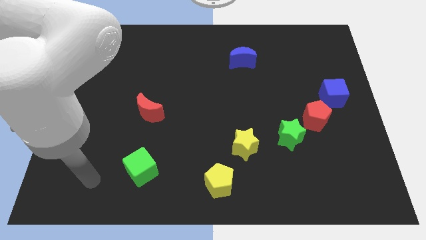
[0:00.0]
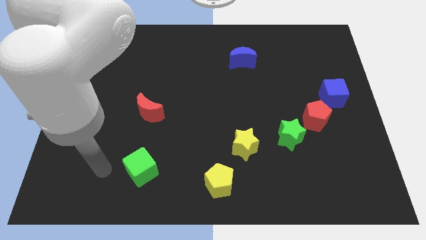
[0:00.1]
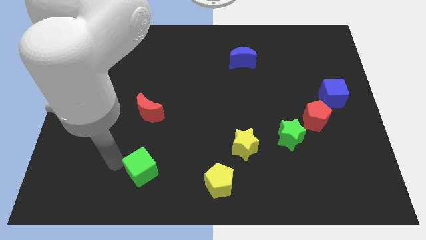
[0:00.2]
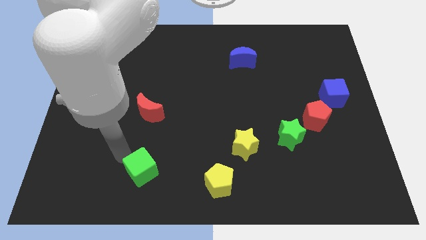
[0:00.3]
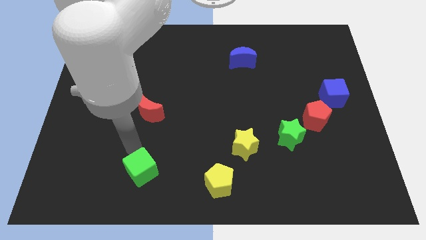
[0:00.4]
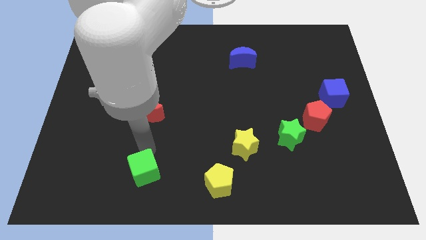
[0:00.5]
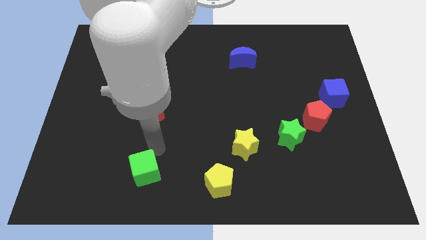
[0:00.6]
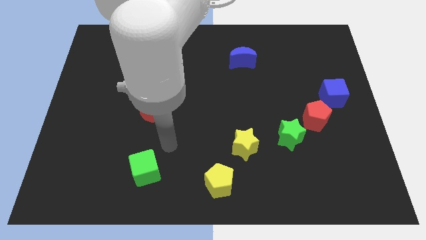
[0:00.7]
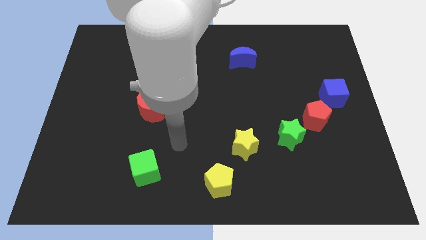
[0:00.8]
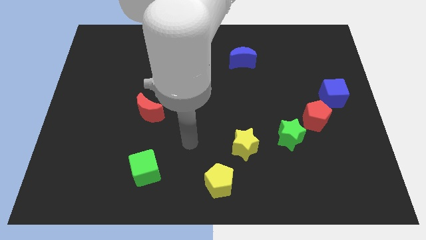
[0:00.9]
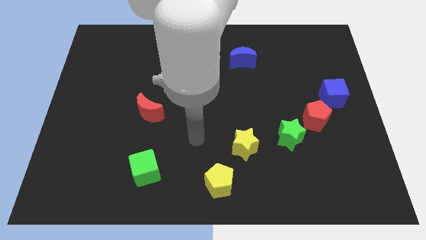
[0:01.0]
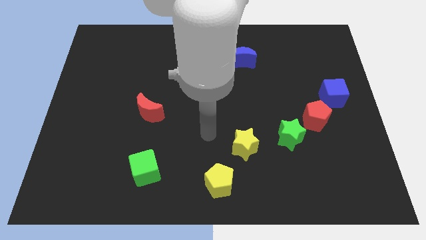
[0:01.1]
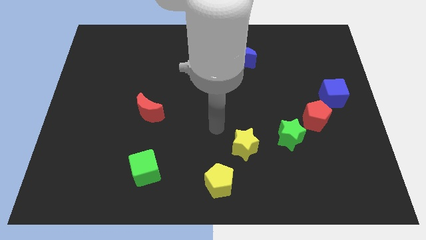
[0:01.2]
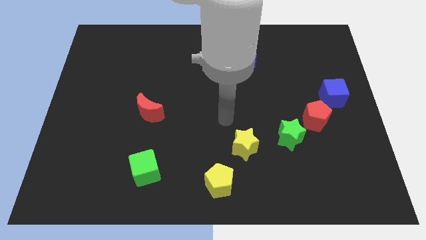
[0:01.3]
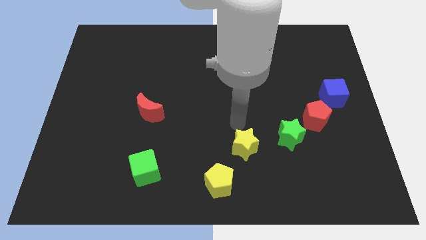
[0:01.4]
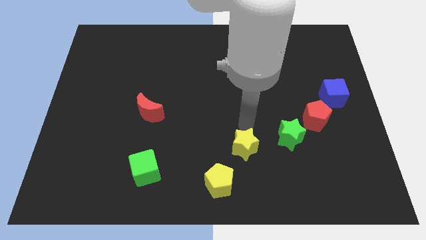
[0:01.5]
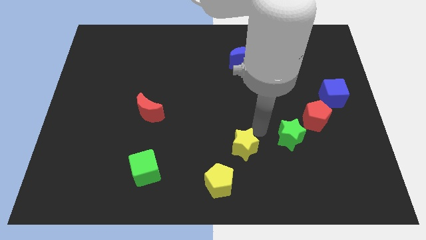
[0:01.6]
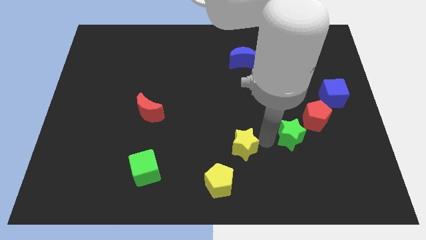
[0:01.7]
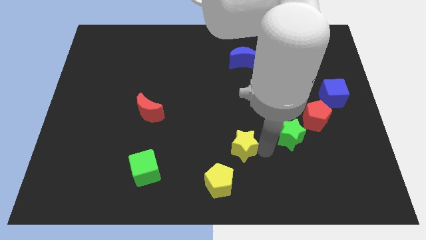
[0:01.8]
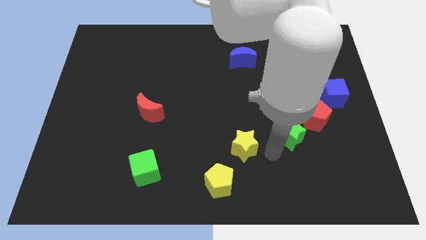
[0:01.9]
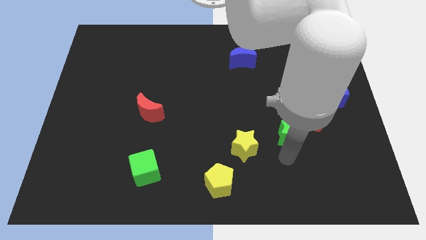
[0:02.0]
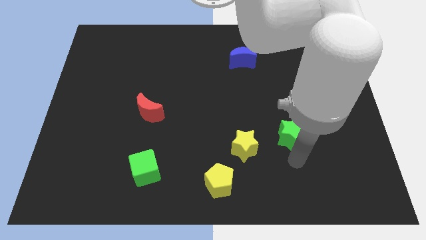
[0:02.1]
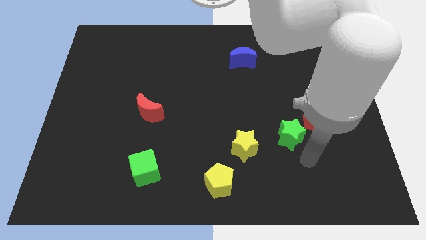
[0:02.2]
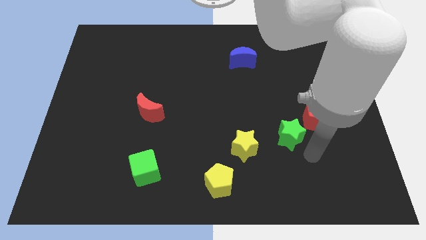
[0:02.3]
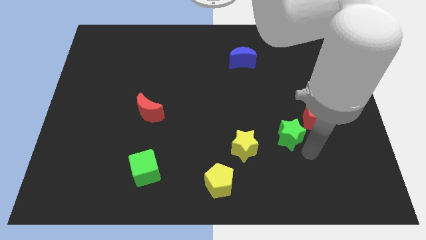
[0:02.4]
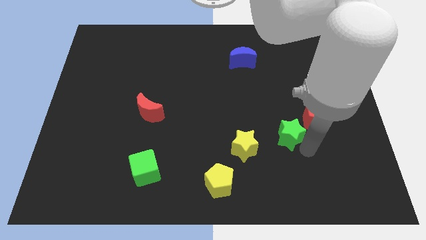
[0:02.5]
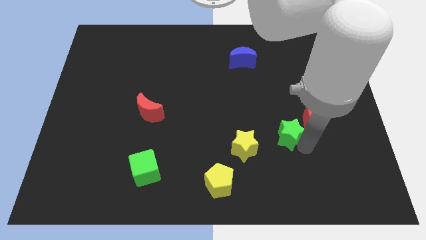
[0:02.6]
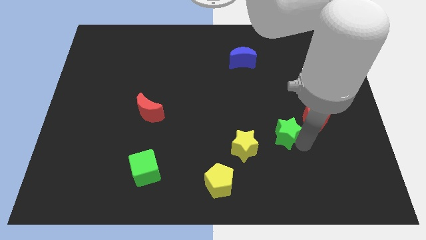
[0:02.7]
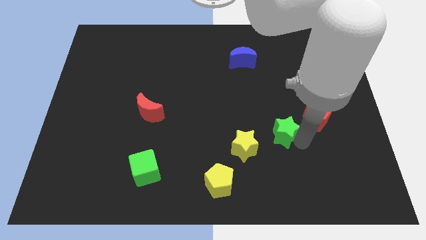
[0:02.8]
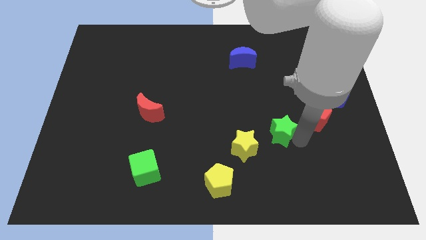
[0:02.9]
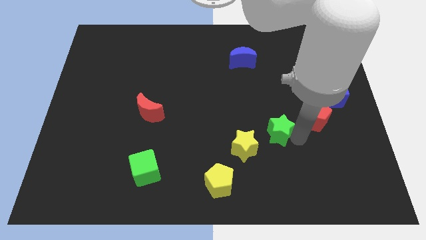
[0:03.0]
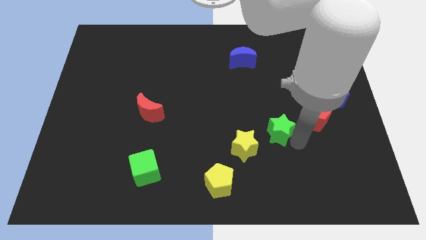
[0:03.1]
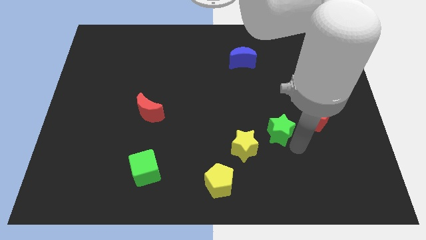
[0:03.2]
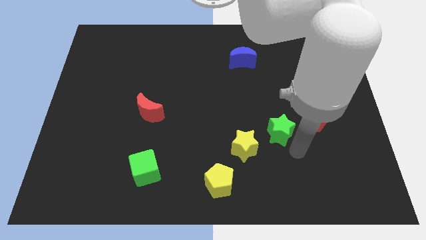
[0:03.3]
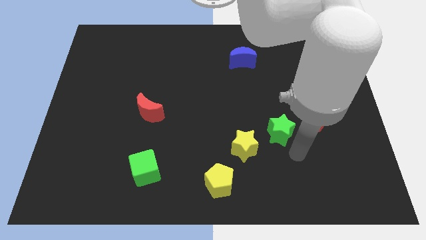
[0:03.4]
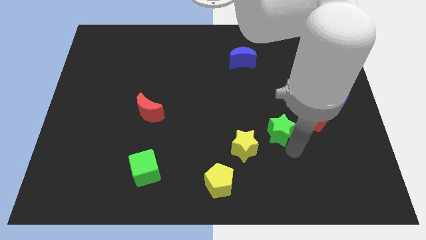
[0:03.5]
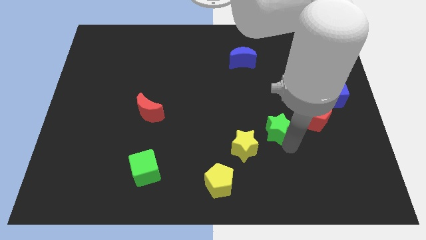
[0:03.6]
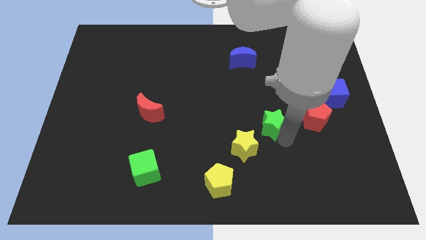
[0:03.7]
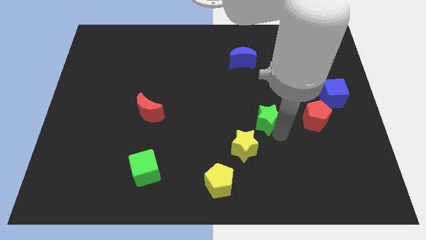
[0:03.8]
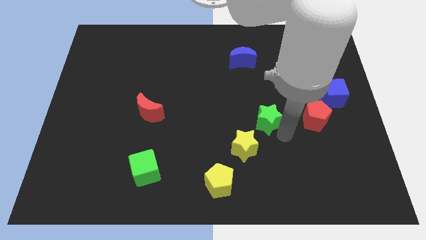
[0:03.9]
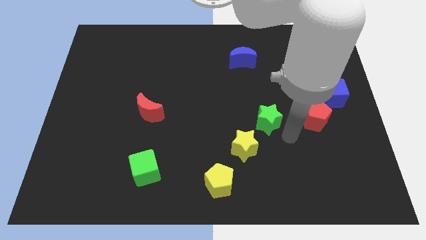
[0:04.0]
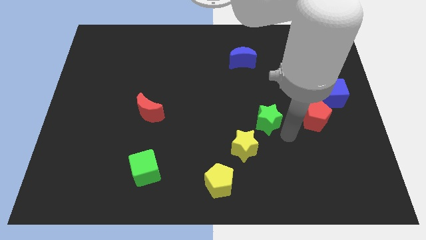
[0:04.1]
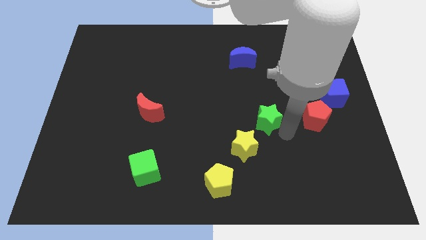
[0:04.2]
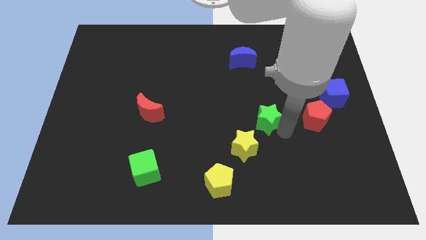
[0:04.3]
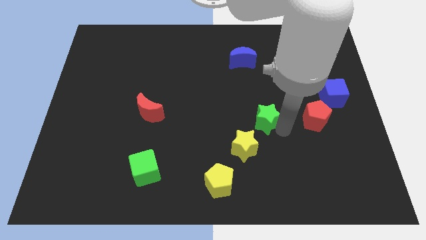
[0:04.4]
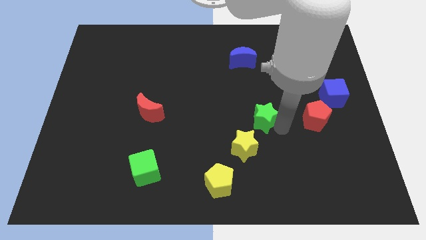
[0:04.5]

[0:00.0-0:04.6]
slightly slide the green star upwards and then to the left

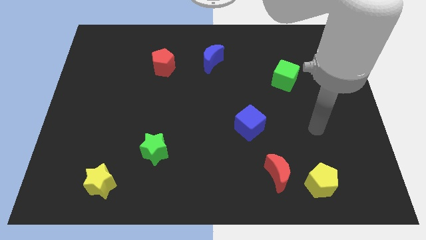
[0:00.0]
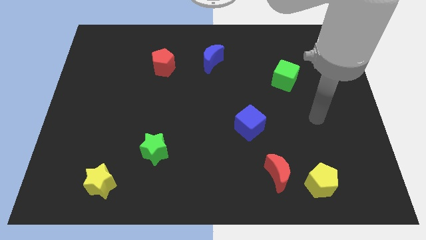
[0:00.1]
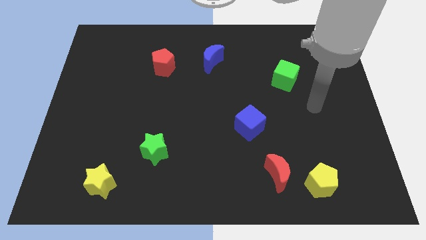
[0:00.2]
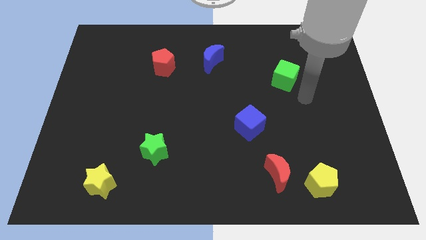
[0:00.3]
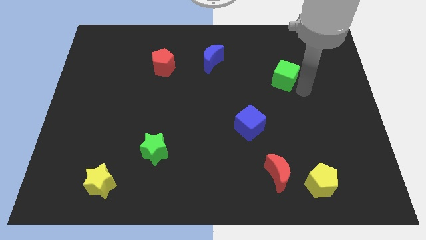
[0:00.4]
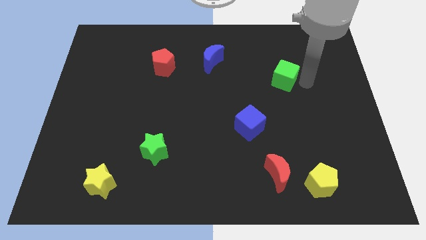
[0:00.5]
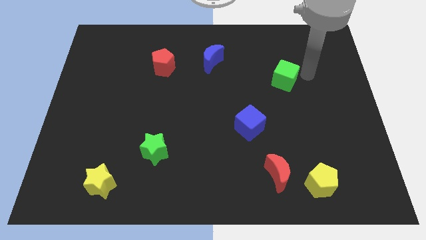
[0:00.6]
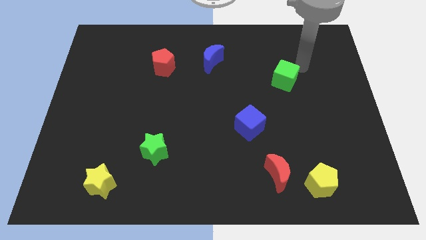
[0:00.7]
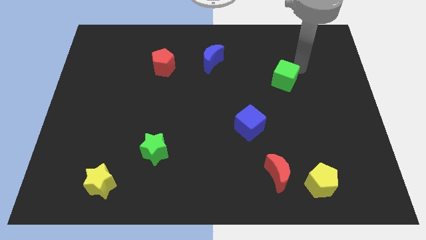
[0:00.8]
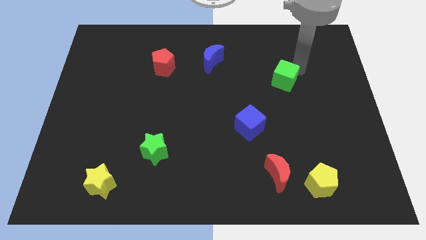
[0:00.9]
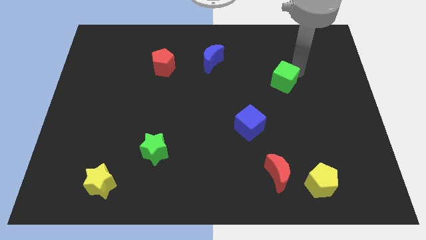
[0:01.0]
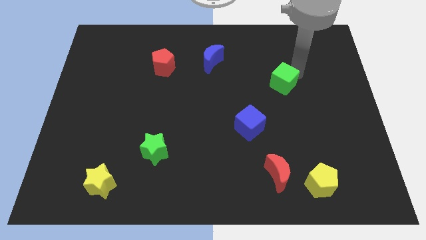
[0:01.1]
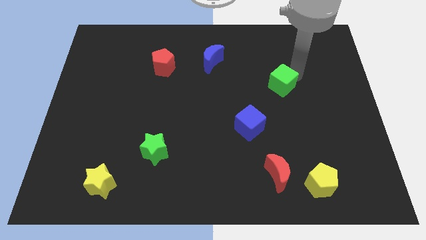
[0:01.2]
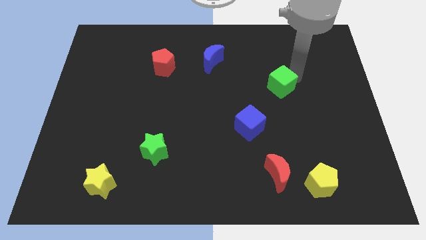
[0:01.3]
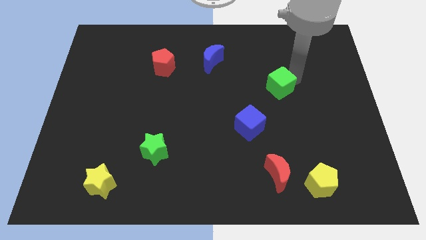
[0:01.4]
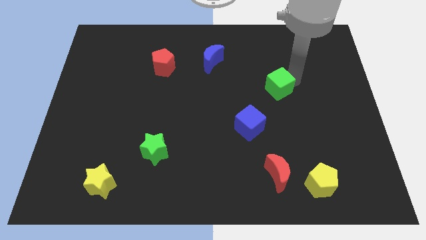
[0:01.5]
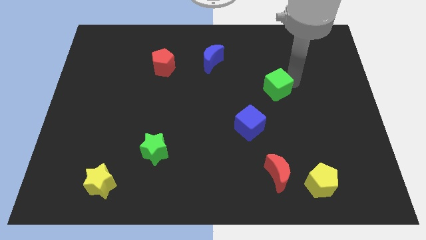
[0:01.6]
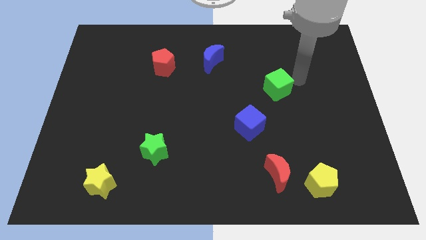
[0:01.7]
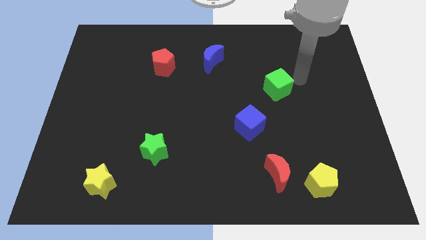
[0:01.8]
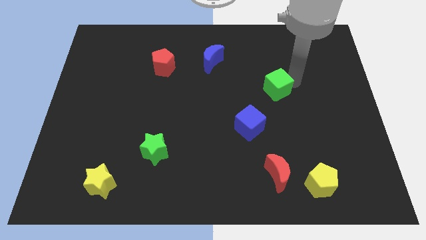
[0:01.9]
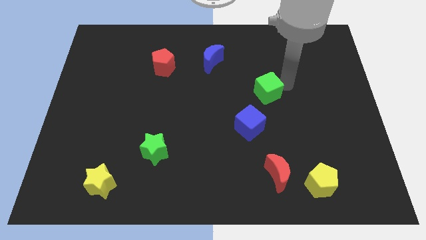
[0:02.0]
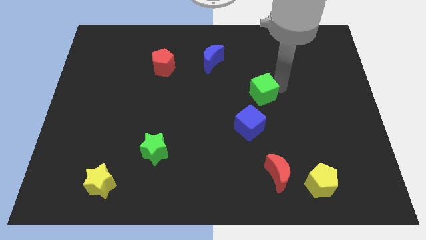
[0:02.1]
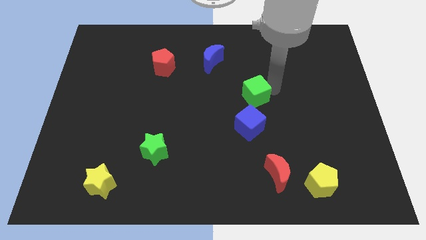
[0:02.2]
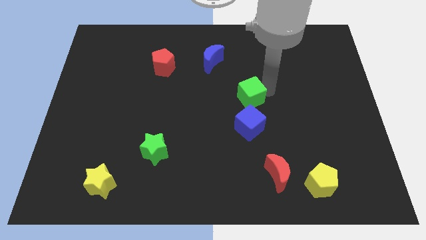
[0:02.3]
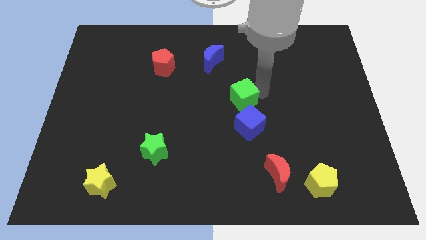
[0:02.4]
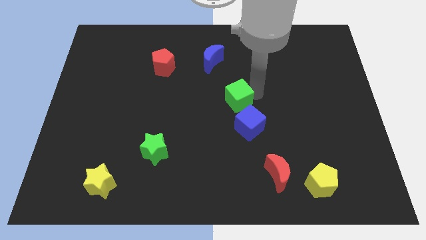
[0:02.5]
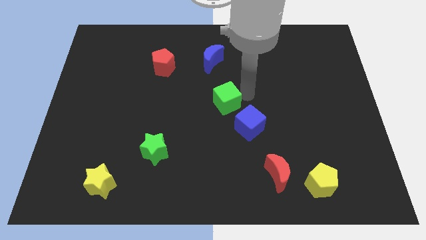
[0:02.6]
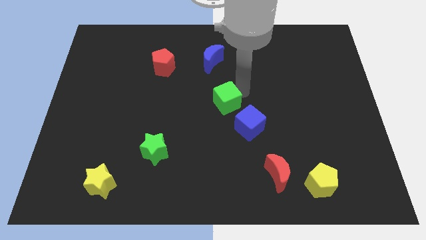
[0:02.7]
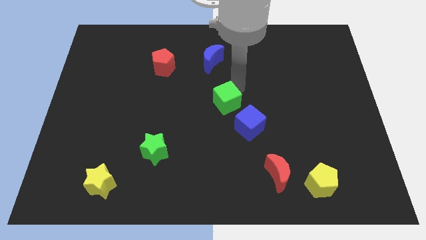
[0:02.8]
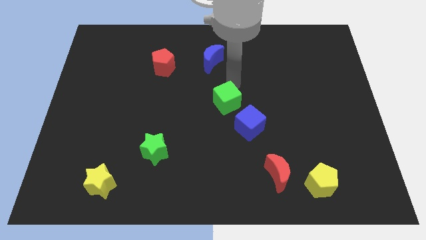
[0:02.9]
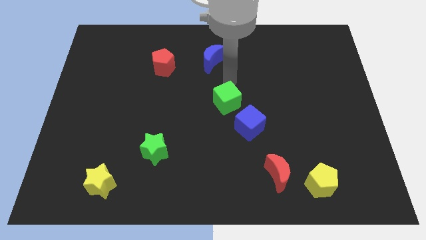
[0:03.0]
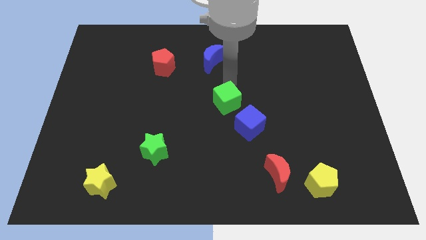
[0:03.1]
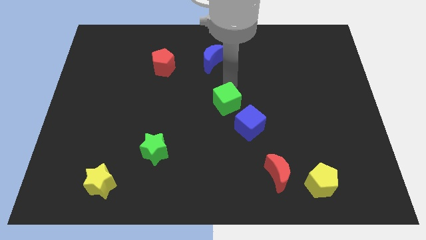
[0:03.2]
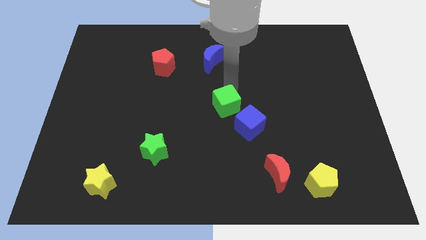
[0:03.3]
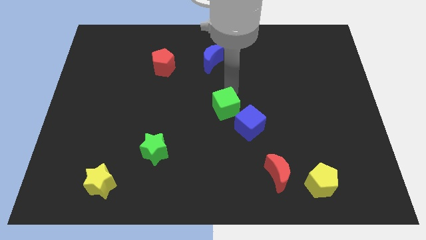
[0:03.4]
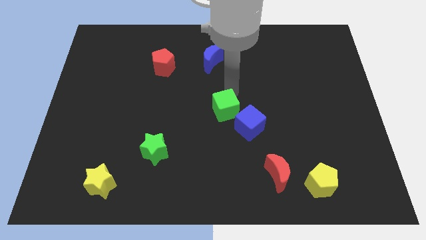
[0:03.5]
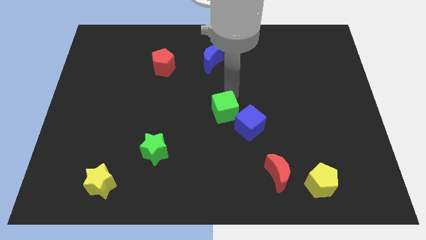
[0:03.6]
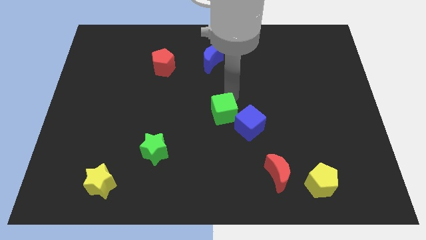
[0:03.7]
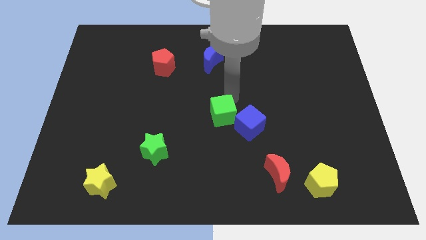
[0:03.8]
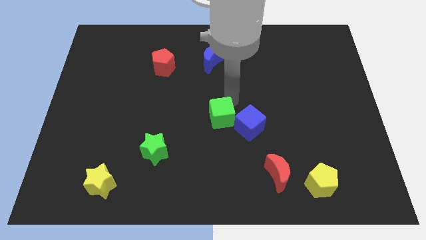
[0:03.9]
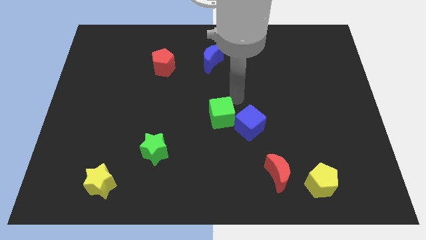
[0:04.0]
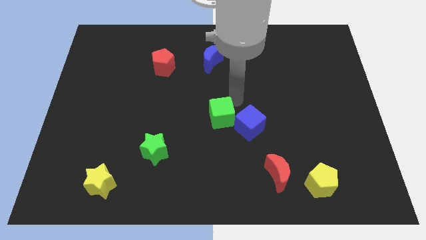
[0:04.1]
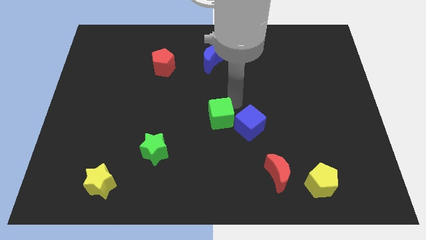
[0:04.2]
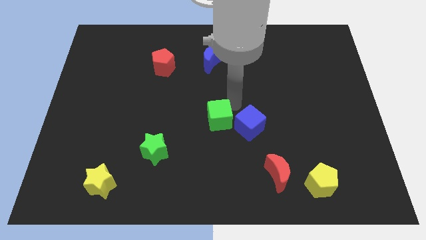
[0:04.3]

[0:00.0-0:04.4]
push the green cube down and then left
